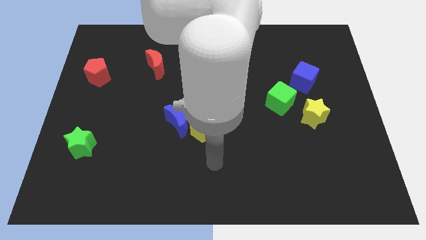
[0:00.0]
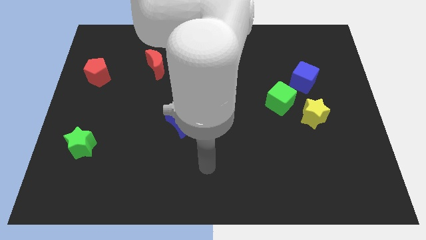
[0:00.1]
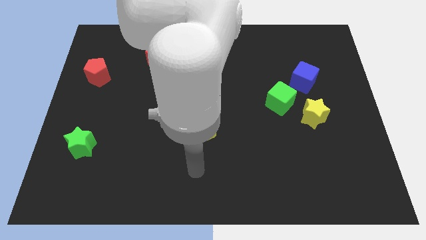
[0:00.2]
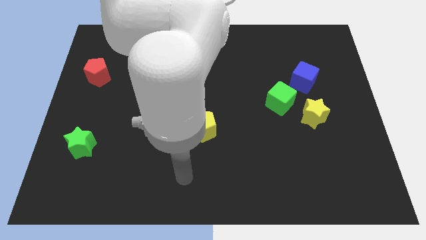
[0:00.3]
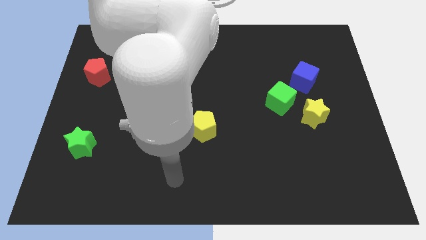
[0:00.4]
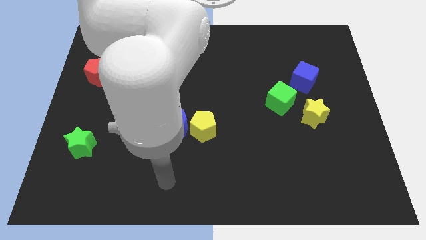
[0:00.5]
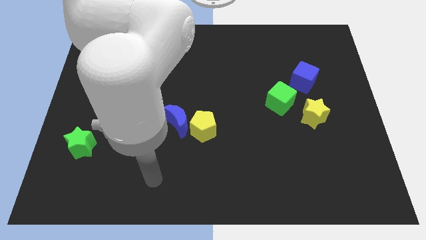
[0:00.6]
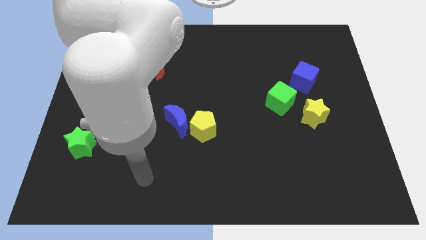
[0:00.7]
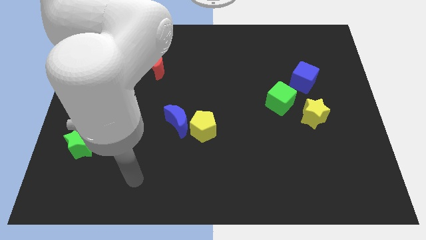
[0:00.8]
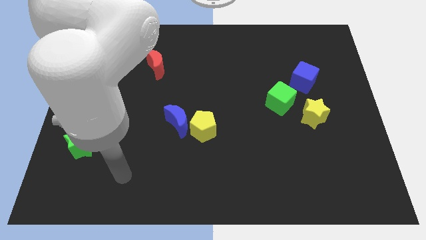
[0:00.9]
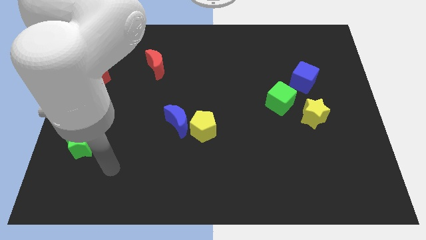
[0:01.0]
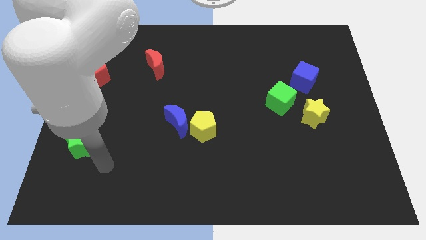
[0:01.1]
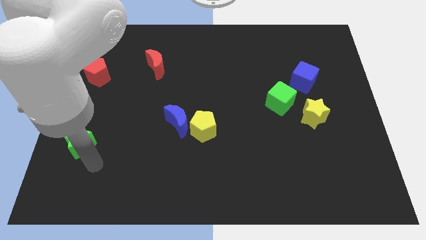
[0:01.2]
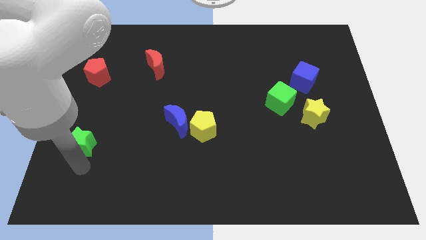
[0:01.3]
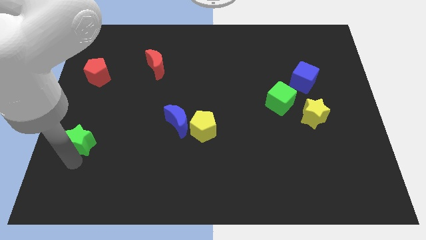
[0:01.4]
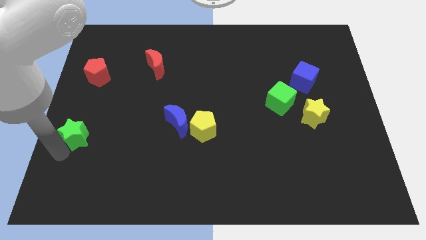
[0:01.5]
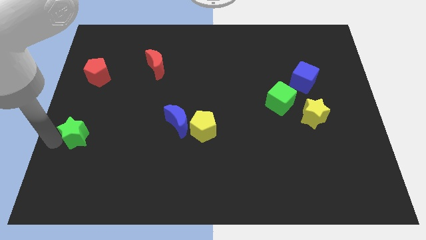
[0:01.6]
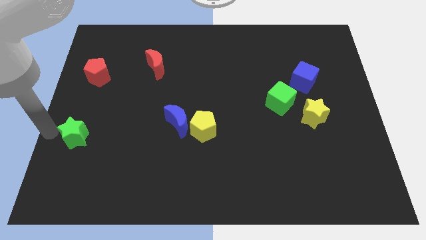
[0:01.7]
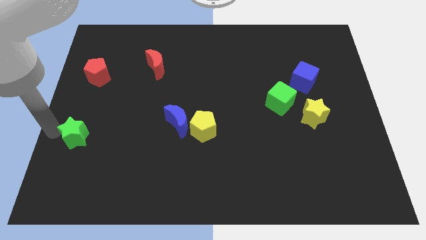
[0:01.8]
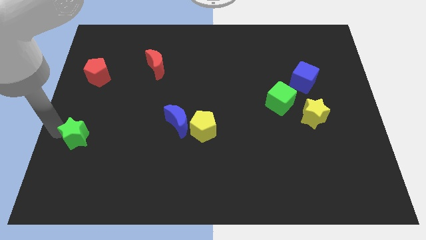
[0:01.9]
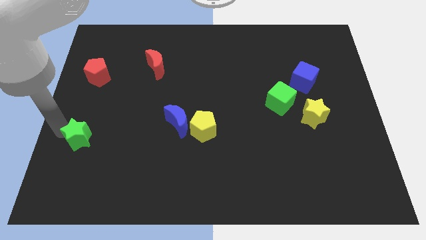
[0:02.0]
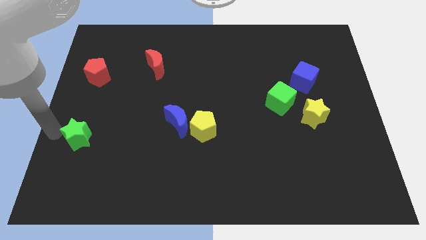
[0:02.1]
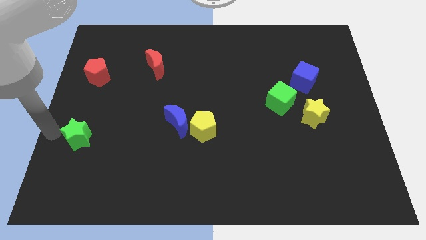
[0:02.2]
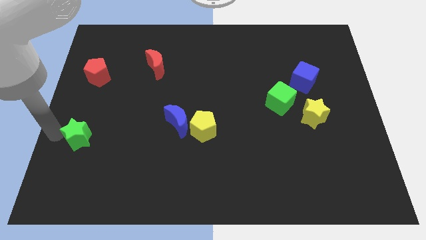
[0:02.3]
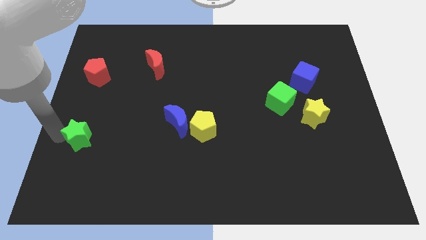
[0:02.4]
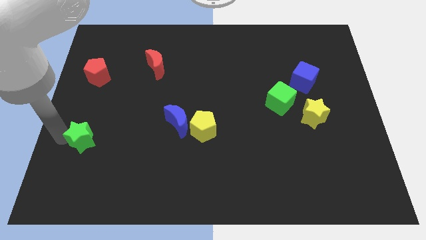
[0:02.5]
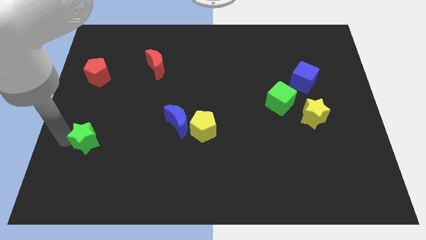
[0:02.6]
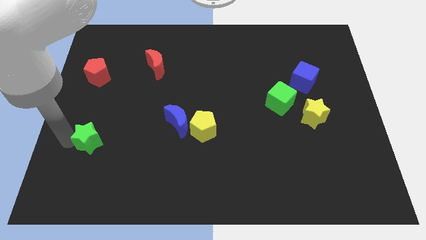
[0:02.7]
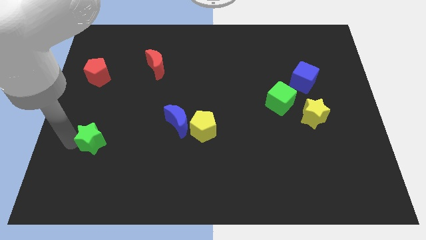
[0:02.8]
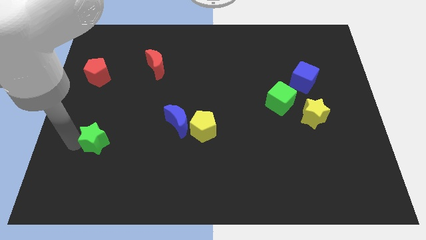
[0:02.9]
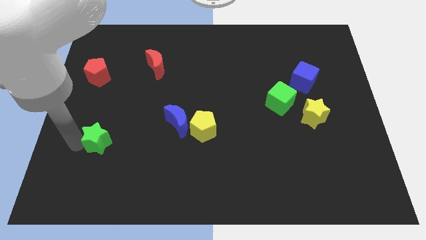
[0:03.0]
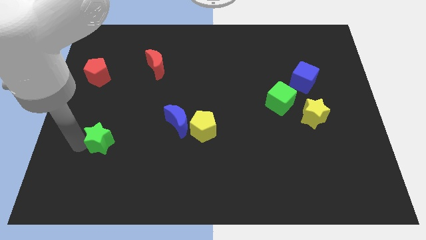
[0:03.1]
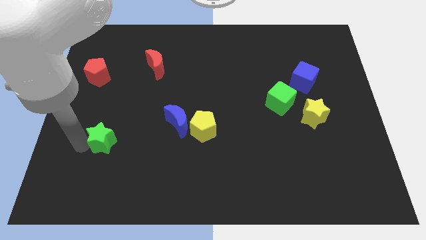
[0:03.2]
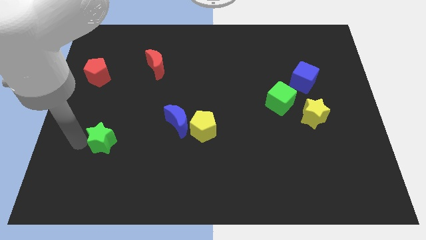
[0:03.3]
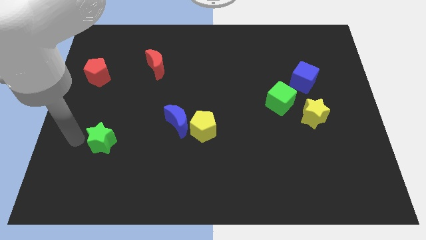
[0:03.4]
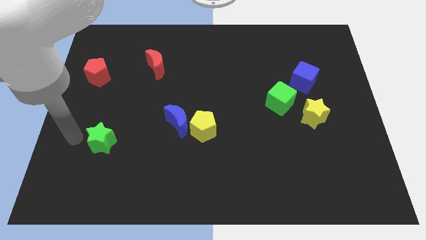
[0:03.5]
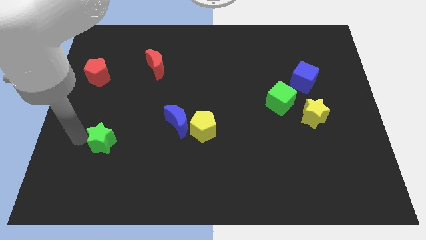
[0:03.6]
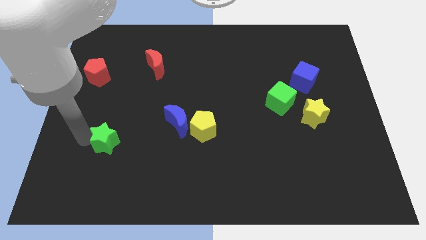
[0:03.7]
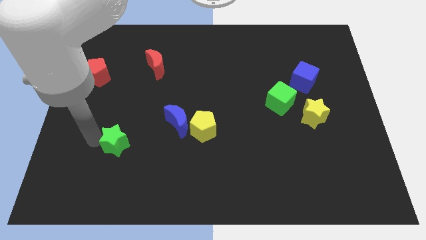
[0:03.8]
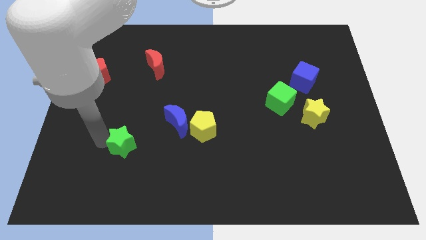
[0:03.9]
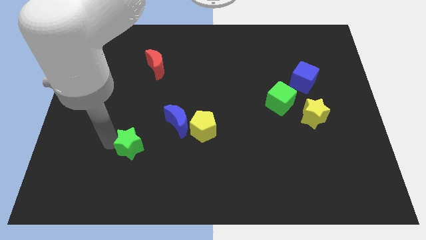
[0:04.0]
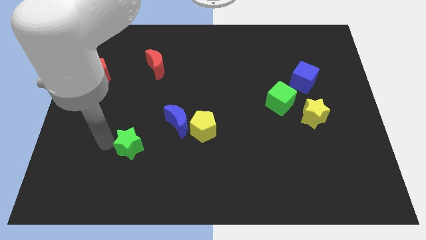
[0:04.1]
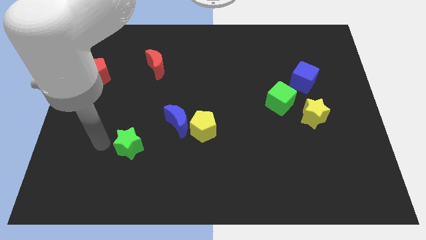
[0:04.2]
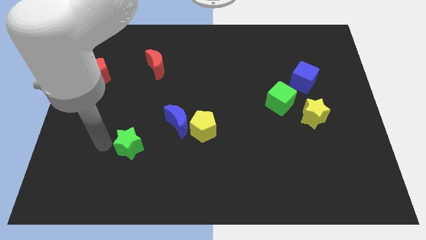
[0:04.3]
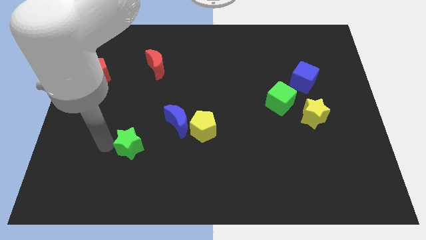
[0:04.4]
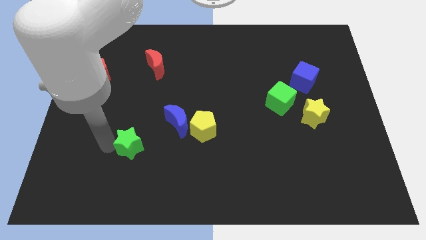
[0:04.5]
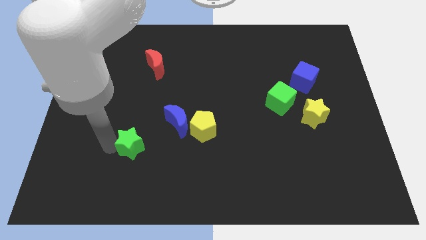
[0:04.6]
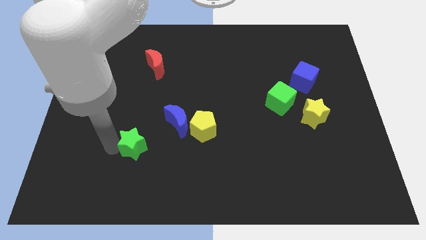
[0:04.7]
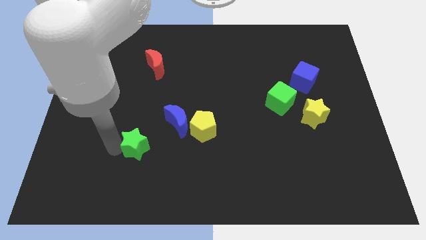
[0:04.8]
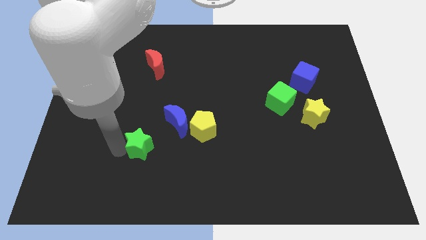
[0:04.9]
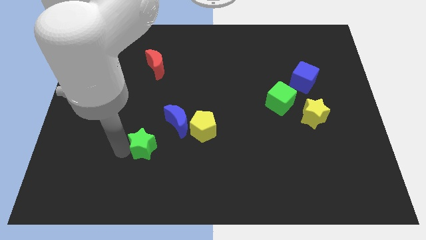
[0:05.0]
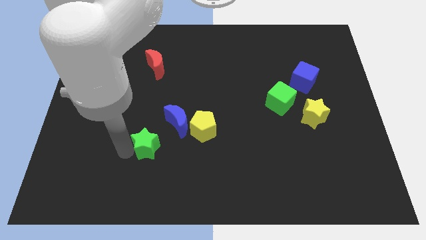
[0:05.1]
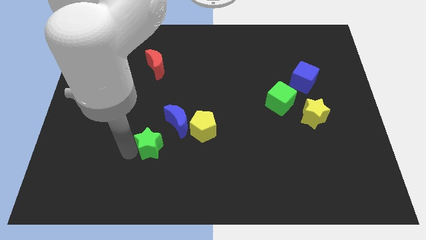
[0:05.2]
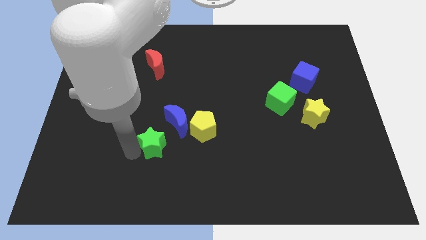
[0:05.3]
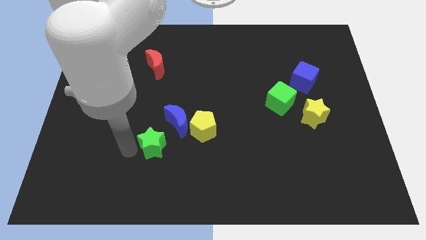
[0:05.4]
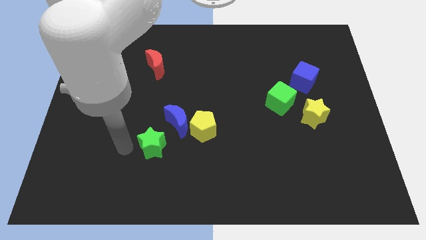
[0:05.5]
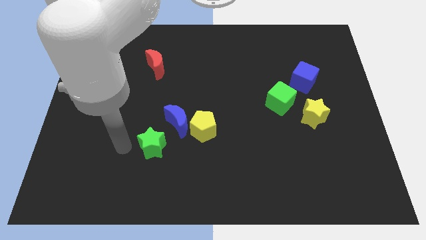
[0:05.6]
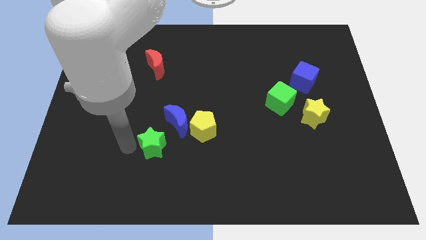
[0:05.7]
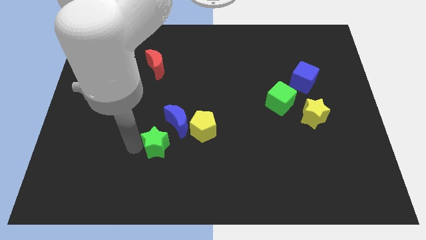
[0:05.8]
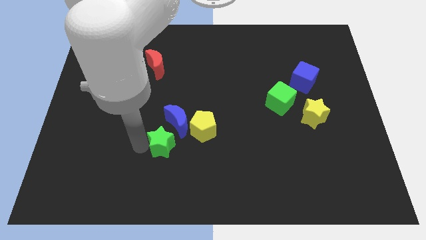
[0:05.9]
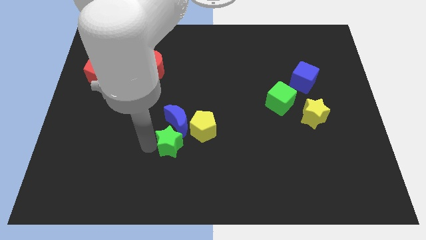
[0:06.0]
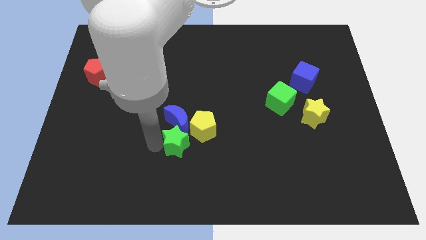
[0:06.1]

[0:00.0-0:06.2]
move the green star right

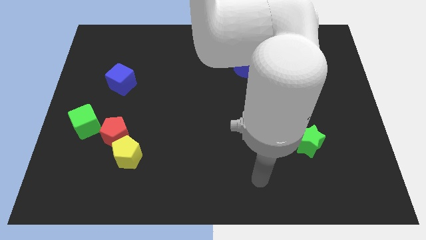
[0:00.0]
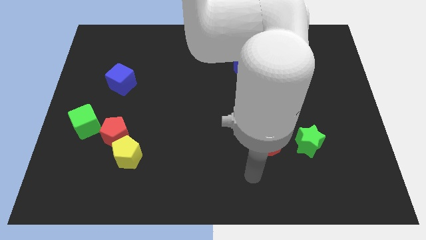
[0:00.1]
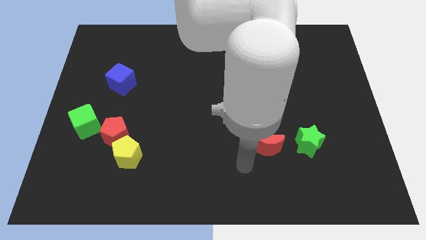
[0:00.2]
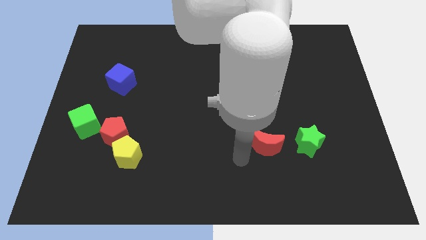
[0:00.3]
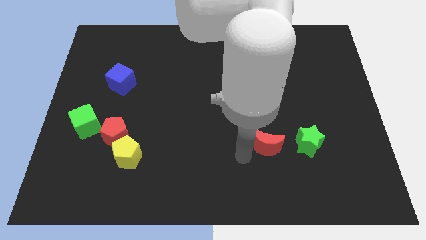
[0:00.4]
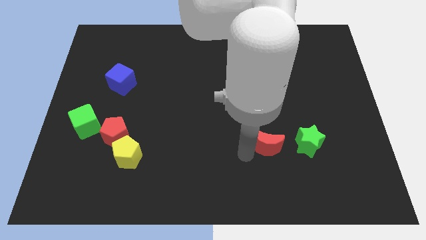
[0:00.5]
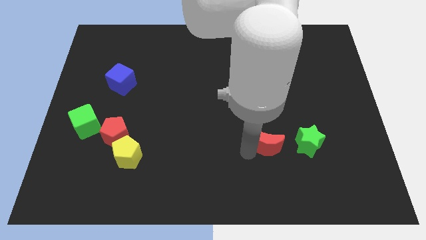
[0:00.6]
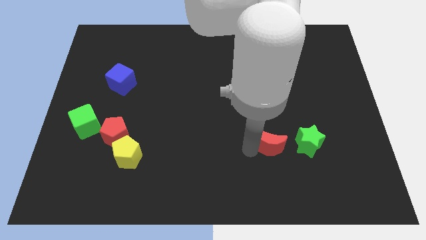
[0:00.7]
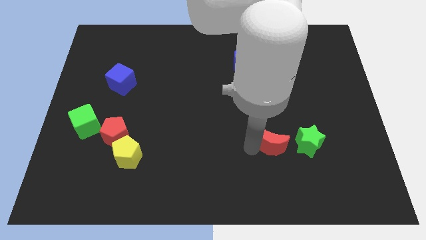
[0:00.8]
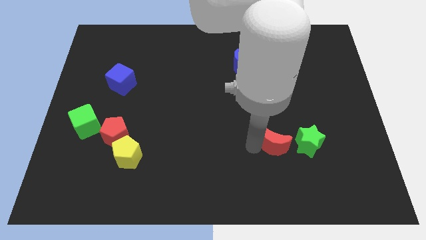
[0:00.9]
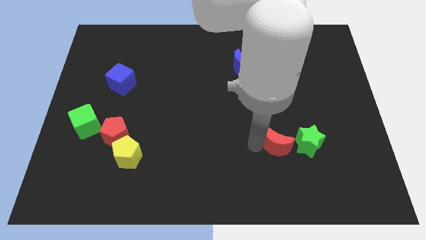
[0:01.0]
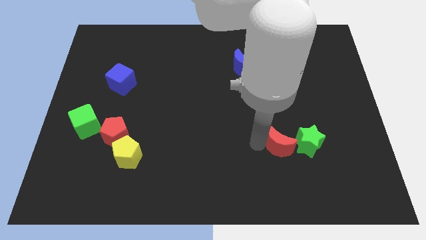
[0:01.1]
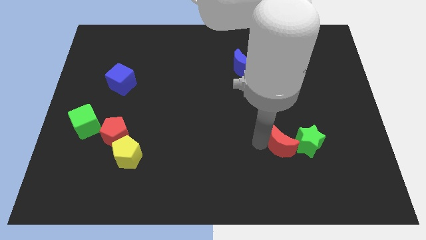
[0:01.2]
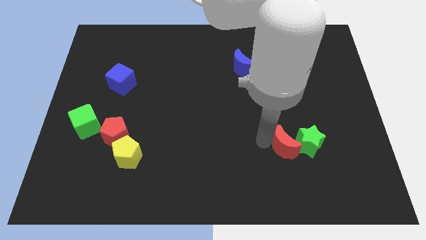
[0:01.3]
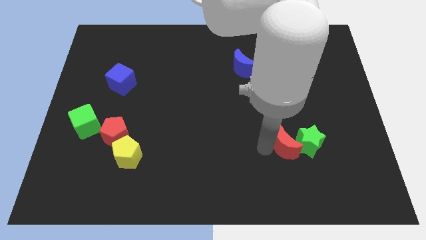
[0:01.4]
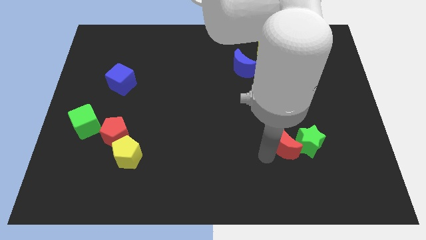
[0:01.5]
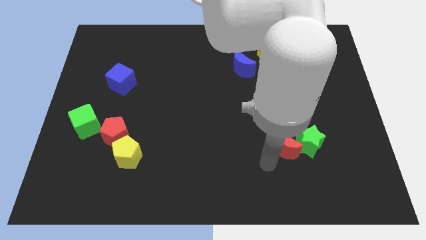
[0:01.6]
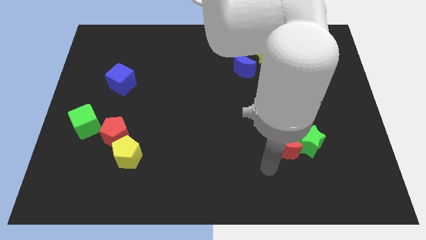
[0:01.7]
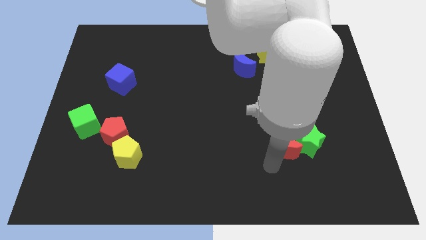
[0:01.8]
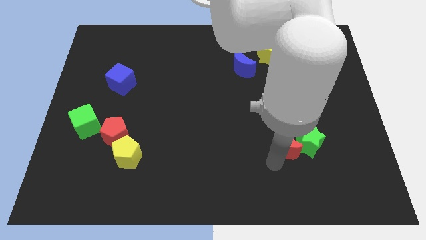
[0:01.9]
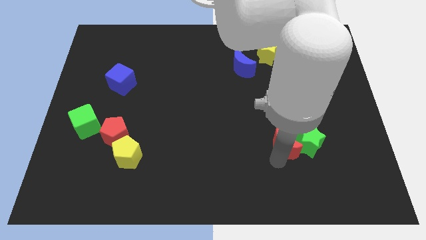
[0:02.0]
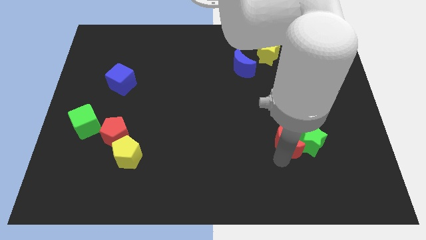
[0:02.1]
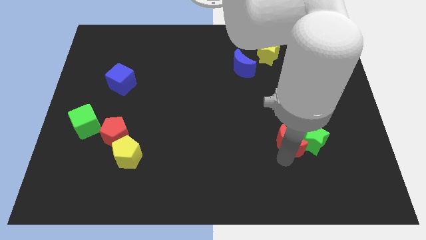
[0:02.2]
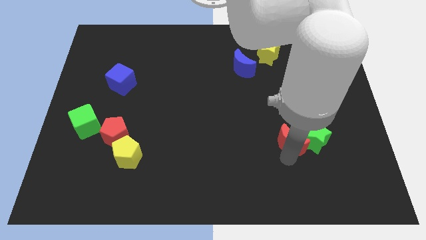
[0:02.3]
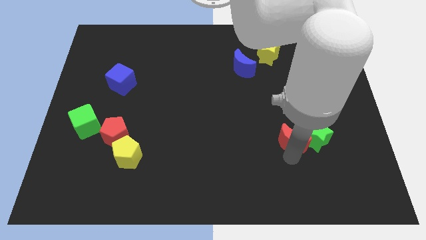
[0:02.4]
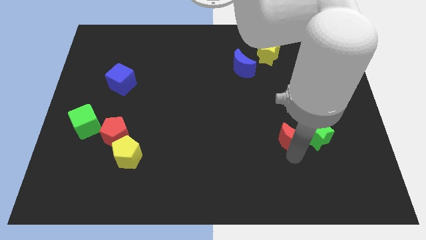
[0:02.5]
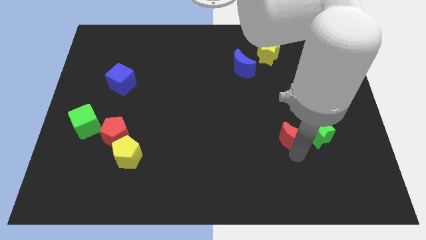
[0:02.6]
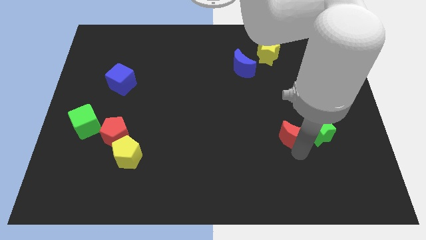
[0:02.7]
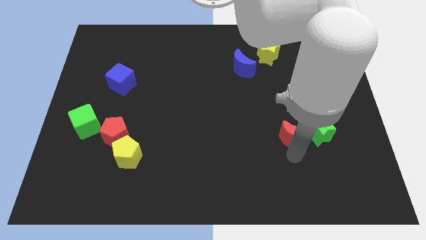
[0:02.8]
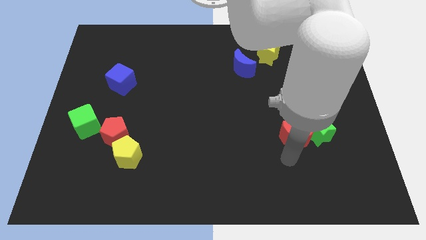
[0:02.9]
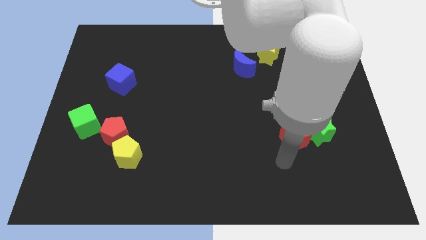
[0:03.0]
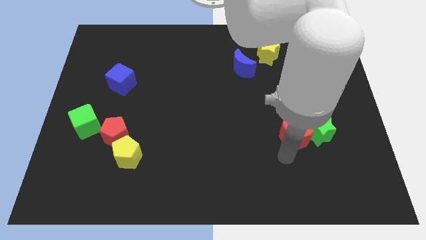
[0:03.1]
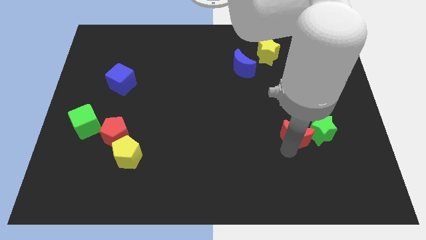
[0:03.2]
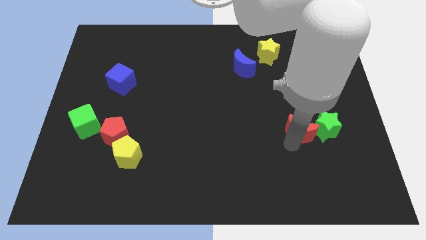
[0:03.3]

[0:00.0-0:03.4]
move the red moon a little bit diagonally upwards and right
